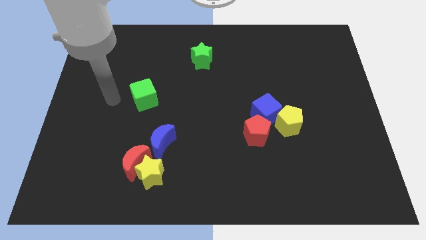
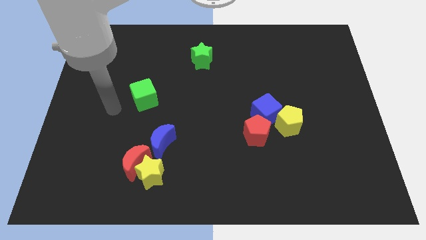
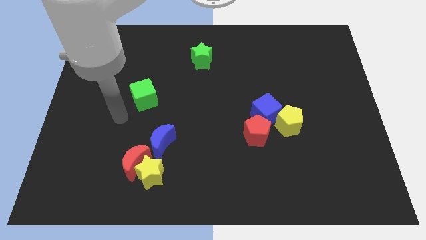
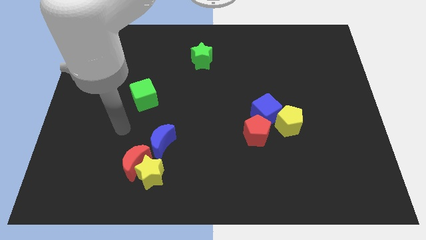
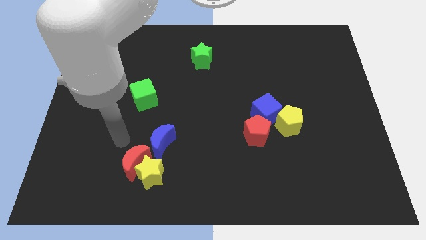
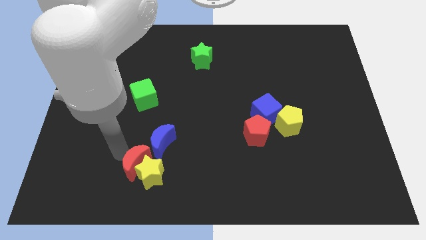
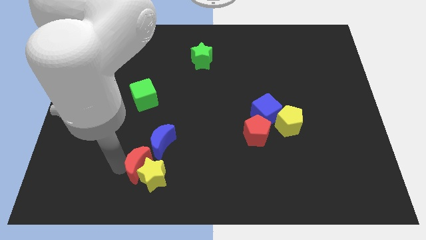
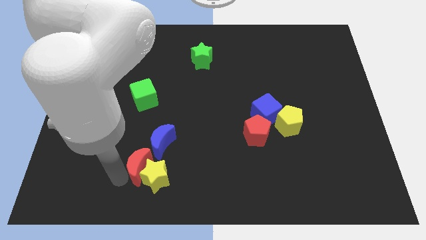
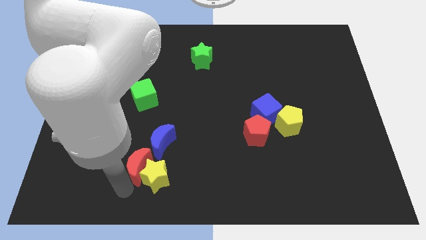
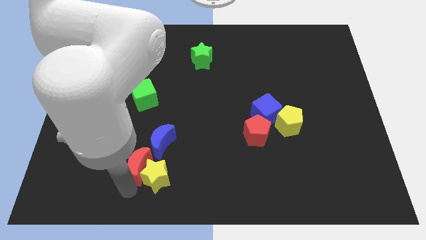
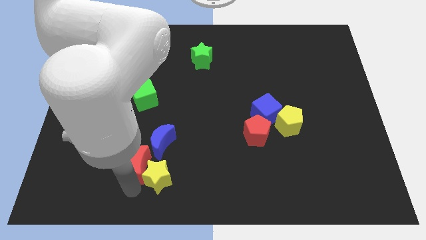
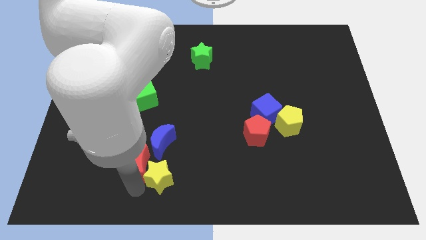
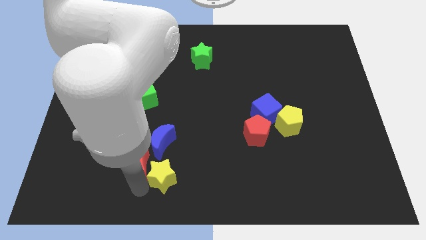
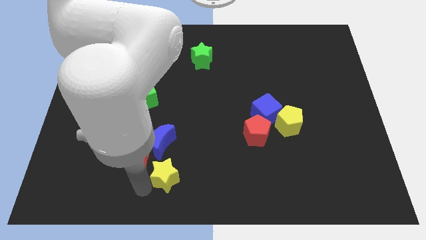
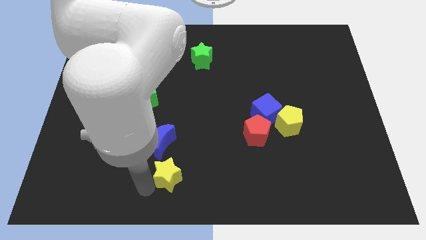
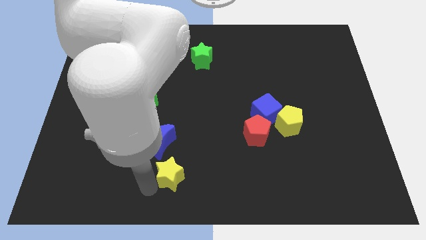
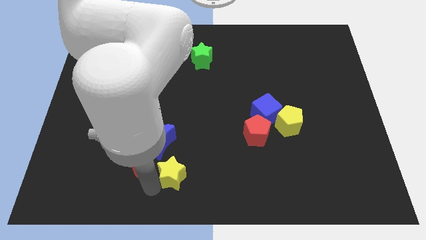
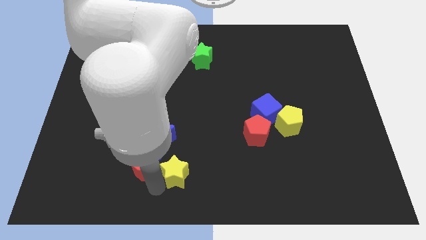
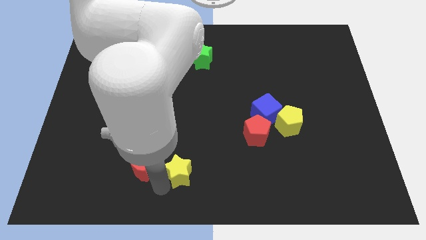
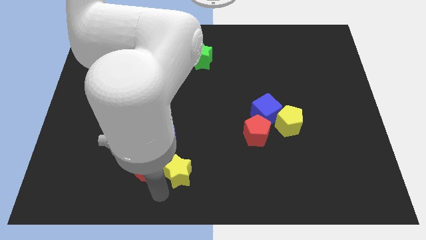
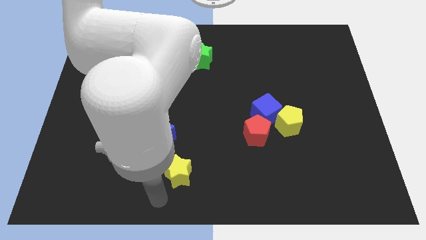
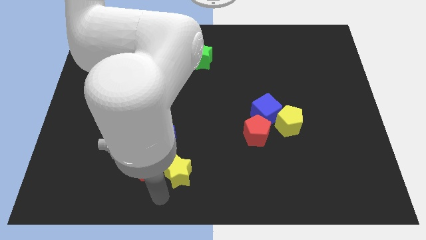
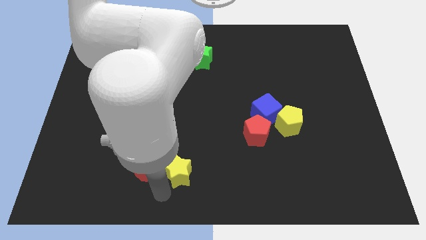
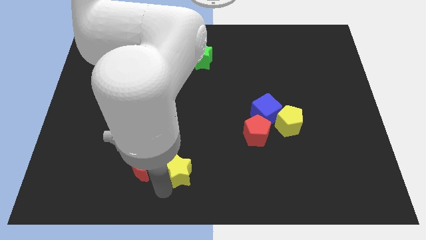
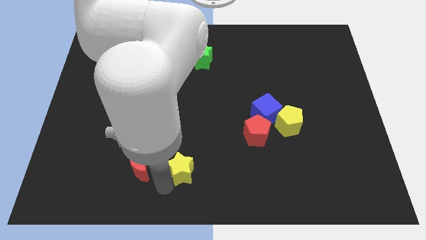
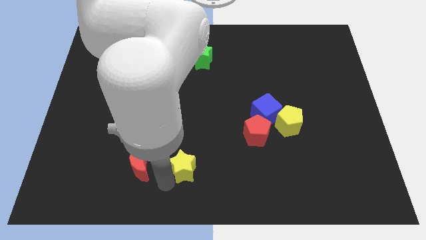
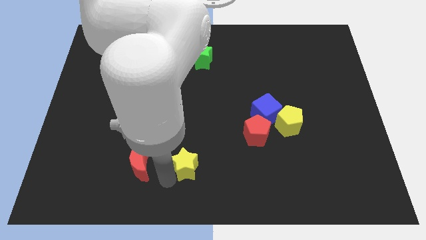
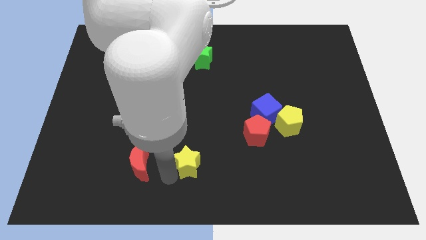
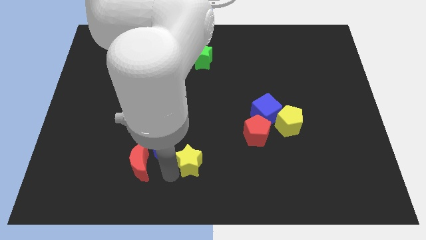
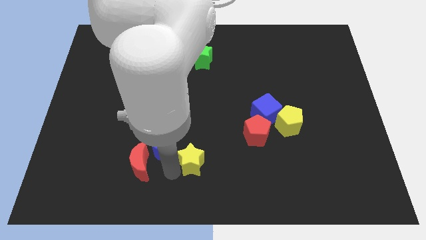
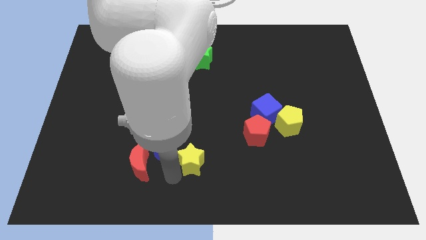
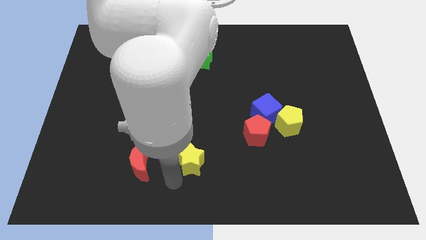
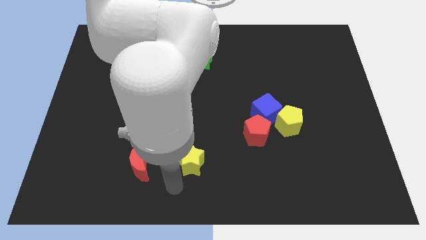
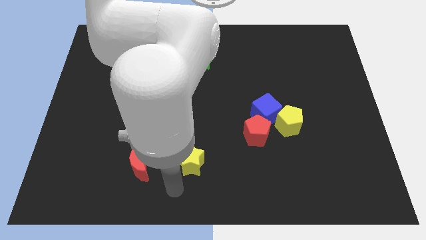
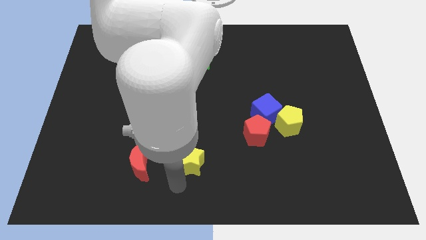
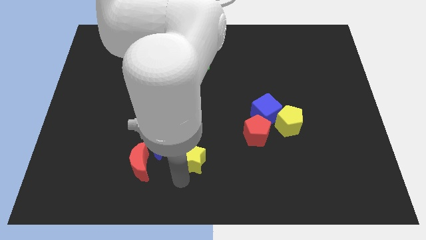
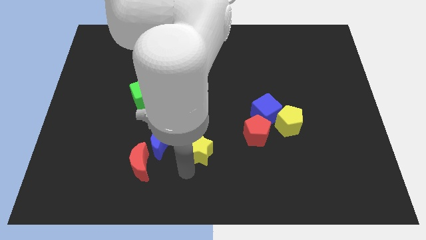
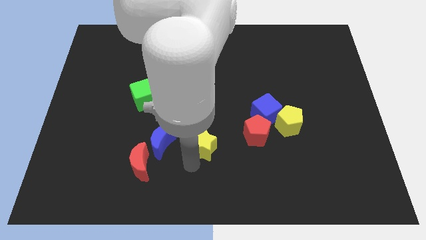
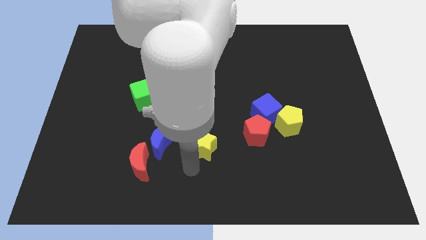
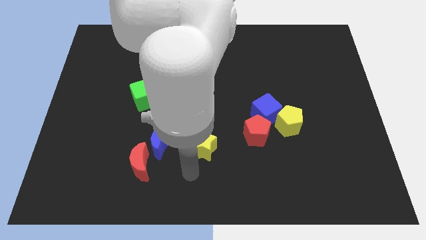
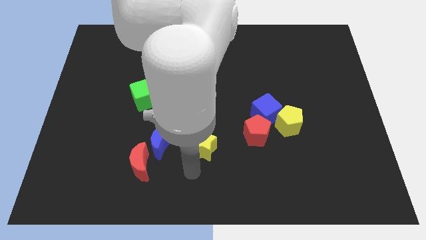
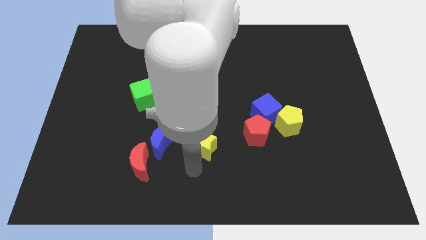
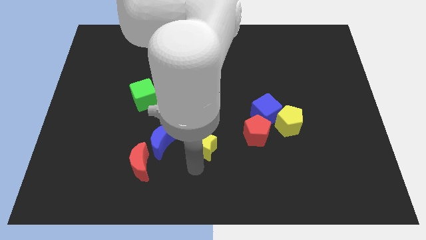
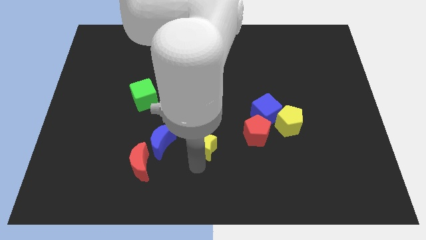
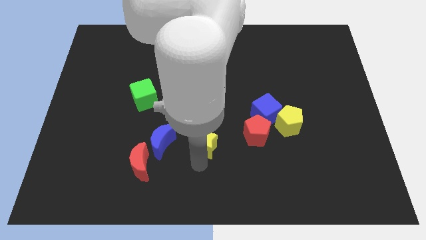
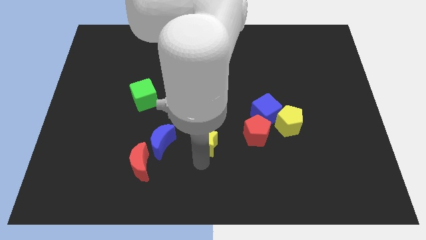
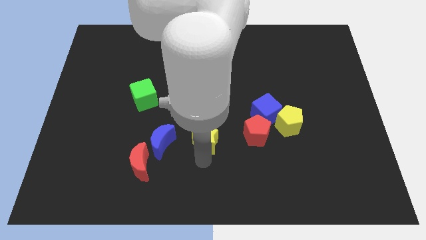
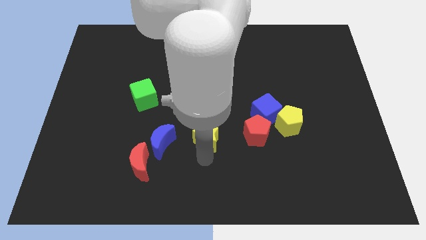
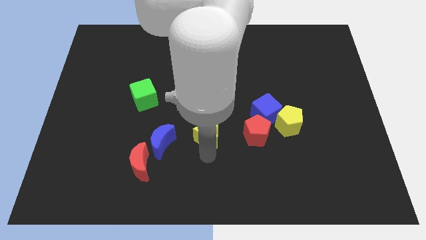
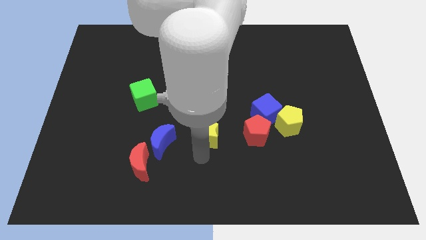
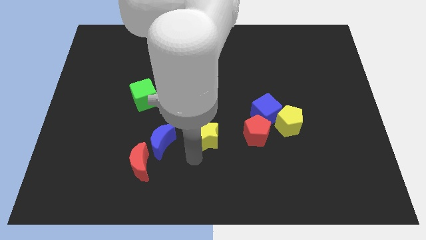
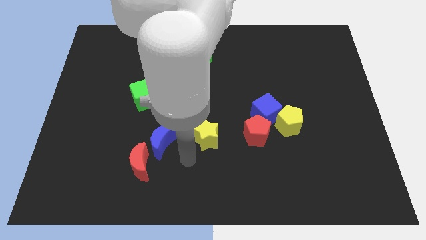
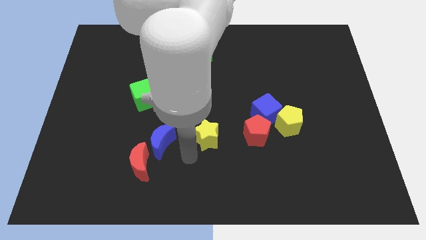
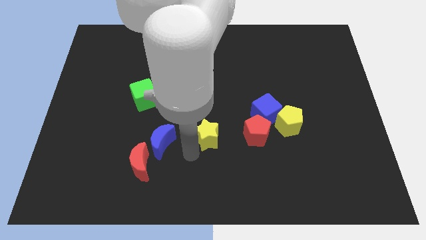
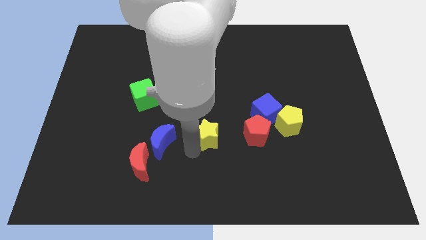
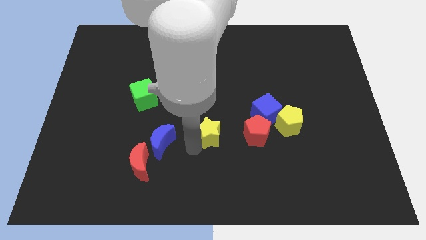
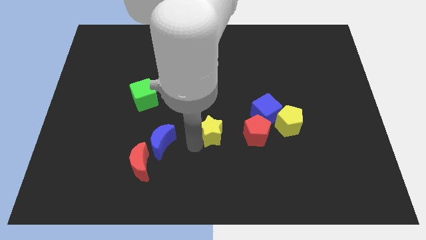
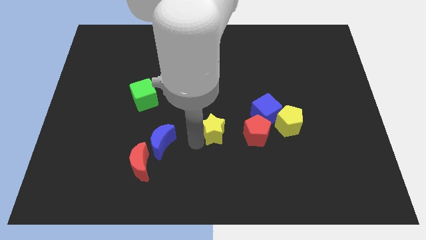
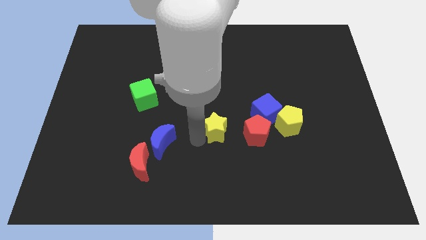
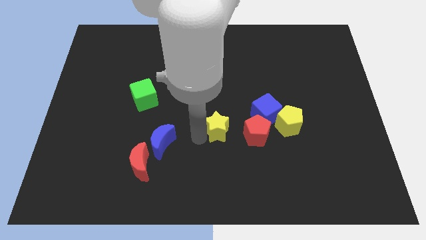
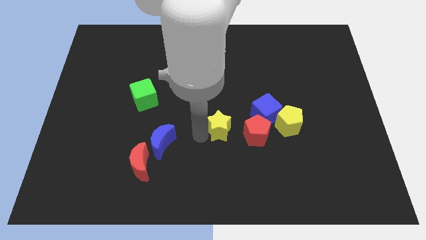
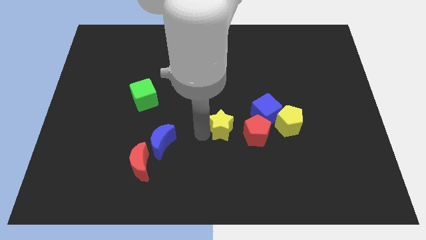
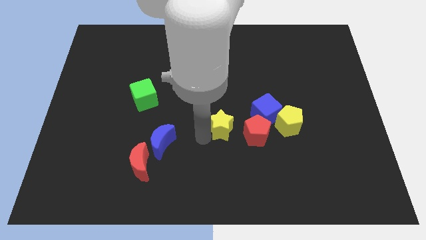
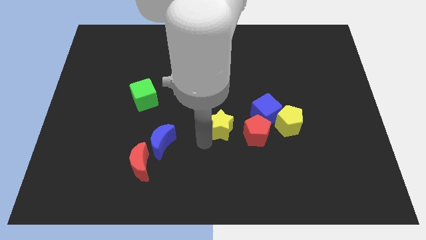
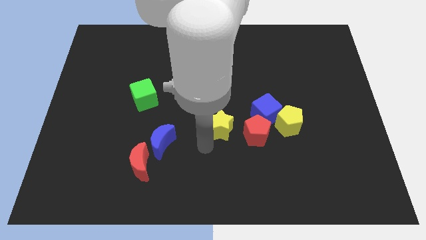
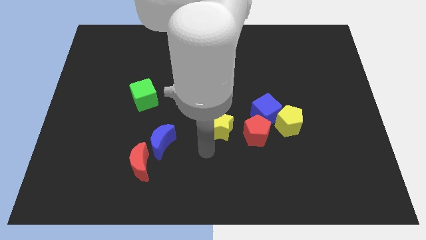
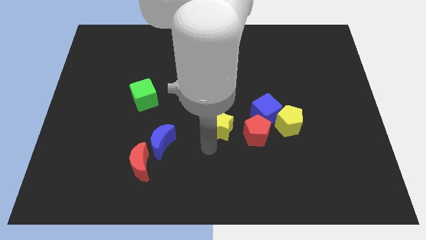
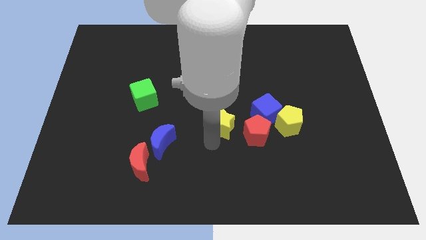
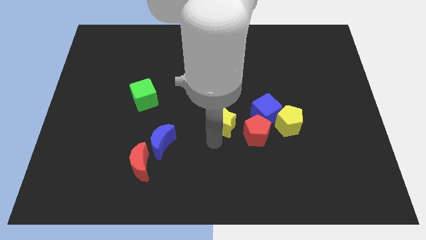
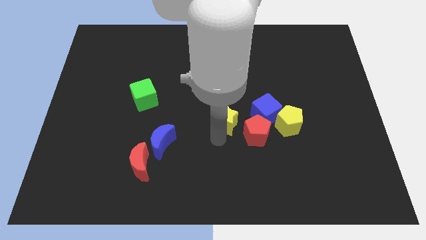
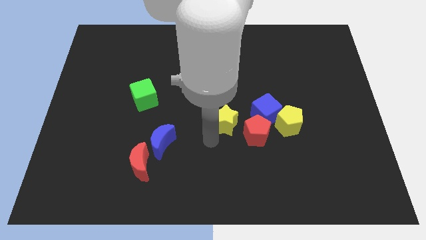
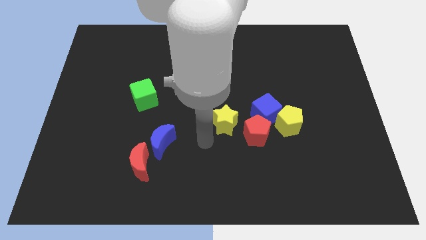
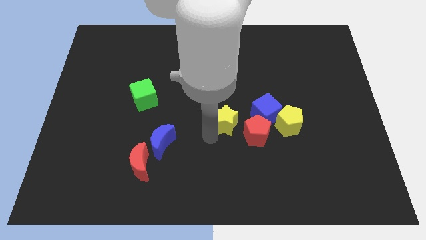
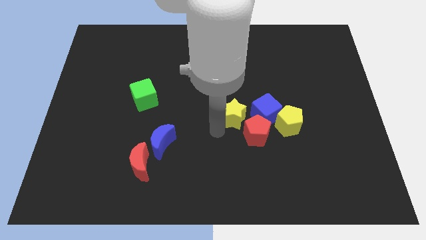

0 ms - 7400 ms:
push the yellow star to the top of the red pentagon
